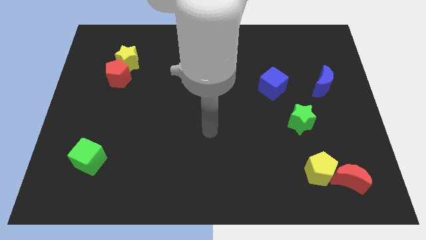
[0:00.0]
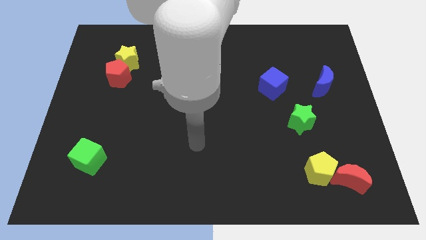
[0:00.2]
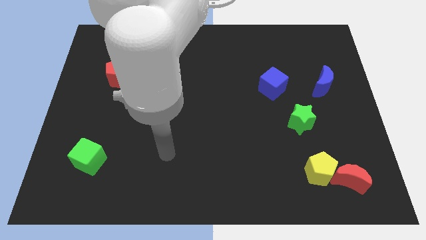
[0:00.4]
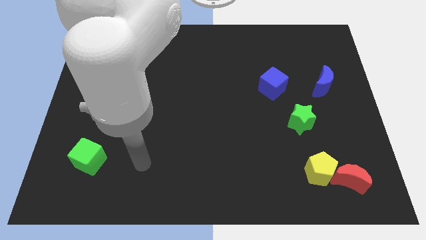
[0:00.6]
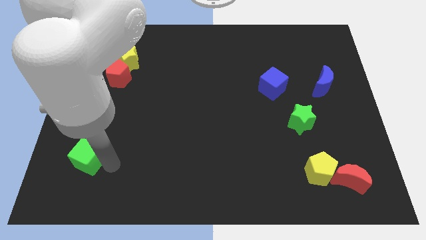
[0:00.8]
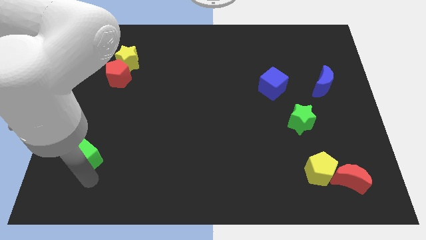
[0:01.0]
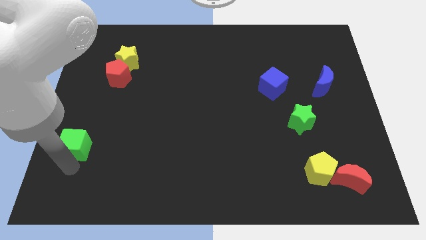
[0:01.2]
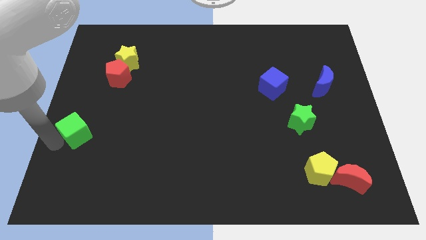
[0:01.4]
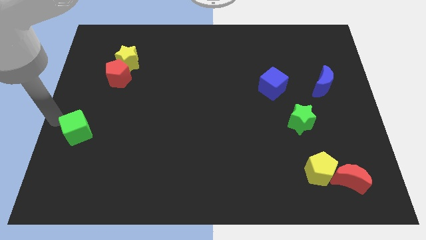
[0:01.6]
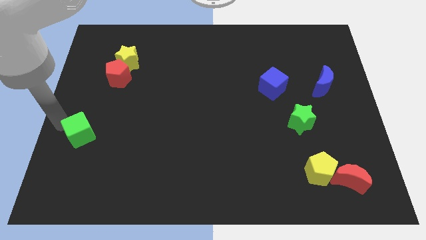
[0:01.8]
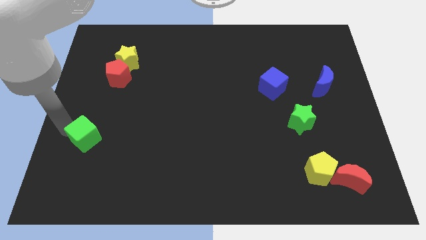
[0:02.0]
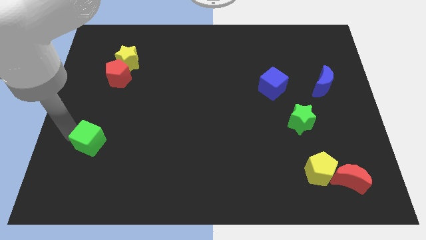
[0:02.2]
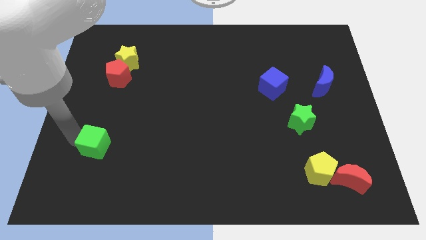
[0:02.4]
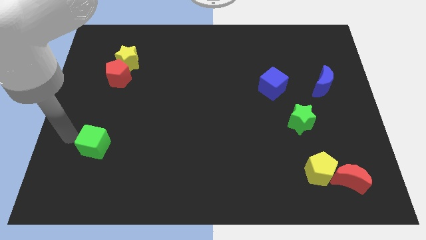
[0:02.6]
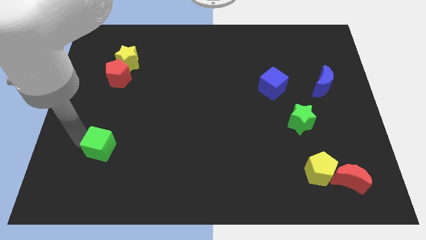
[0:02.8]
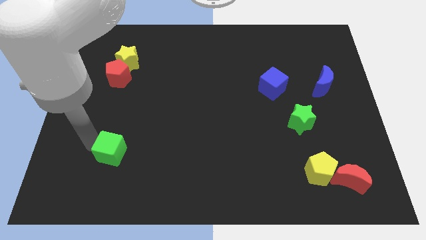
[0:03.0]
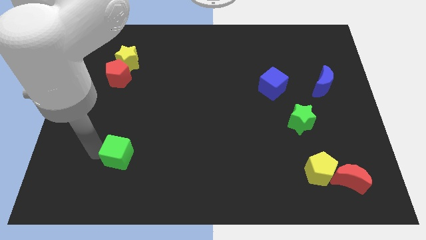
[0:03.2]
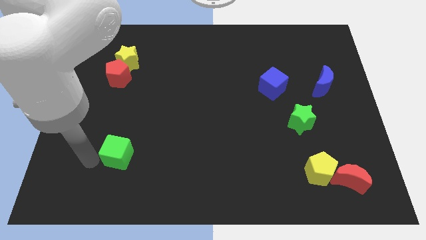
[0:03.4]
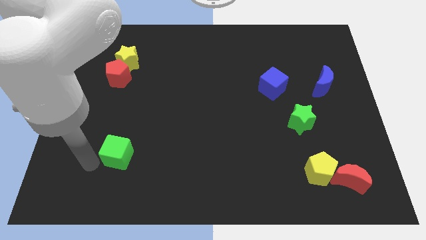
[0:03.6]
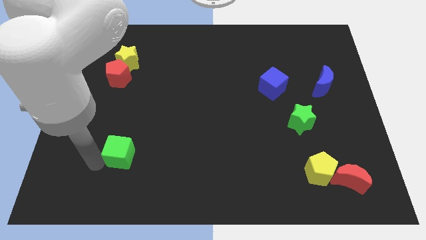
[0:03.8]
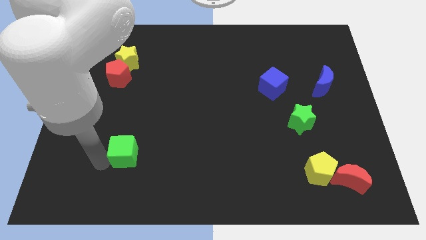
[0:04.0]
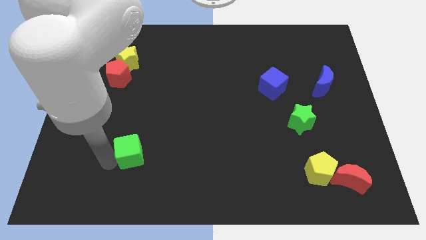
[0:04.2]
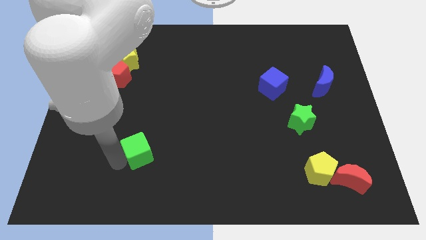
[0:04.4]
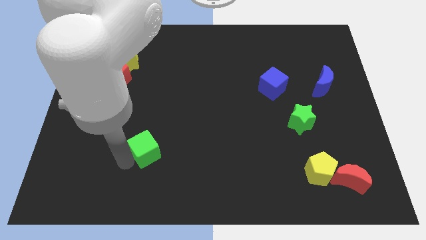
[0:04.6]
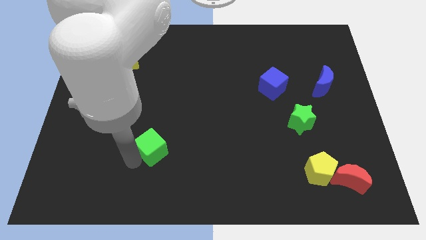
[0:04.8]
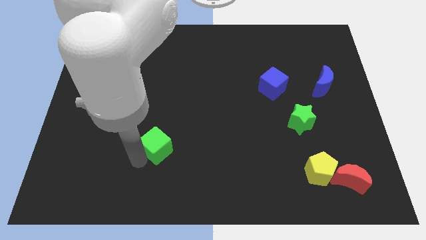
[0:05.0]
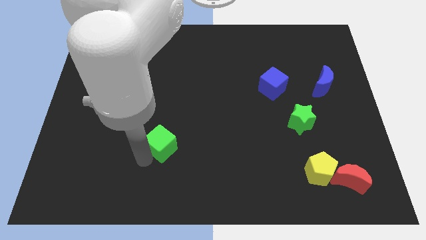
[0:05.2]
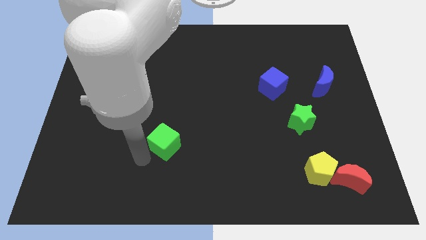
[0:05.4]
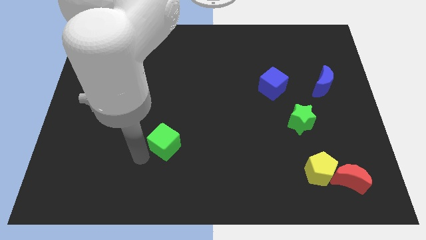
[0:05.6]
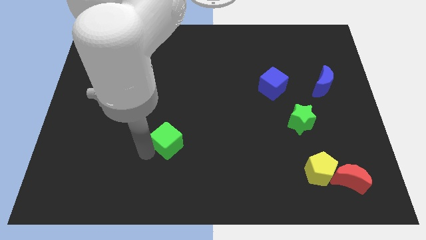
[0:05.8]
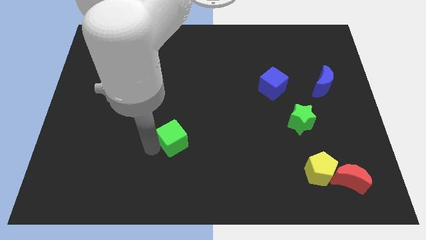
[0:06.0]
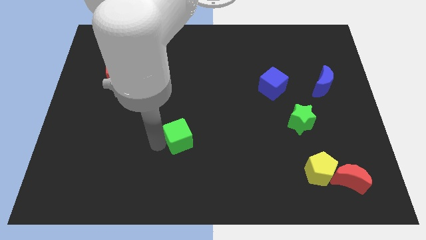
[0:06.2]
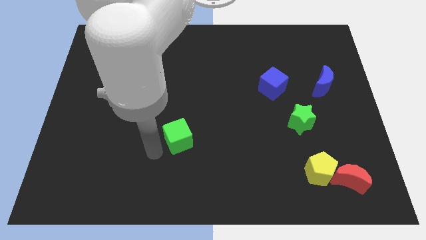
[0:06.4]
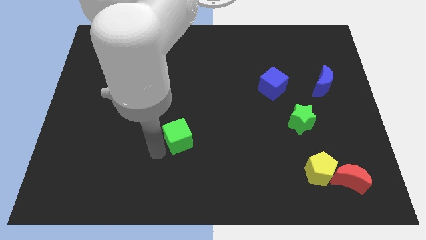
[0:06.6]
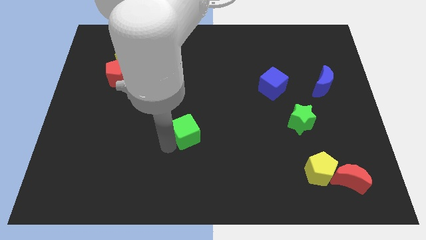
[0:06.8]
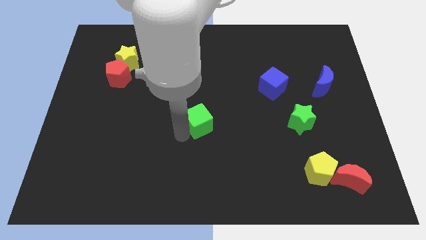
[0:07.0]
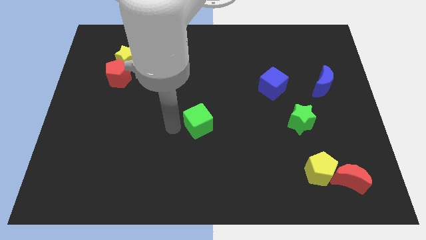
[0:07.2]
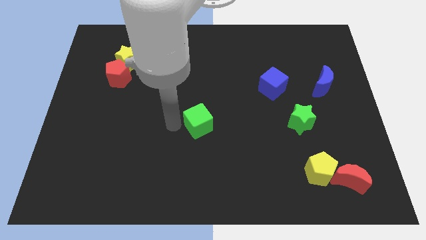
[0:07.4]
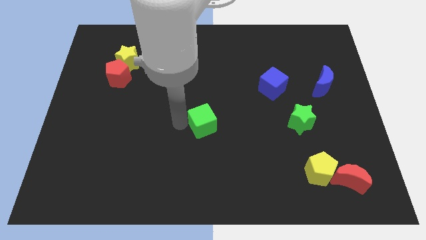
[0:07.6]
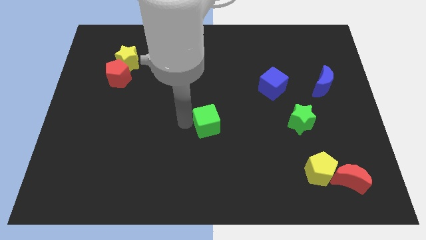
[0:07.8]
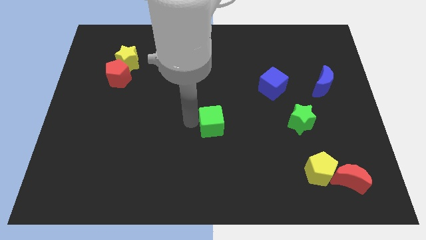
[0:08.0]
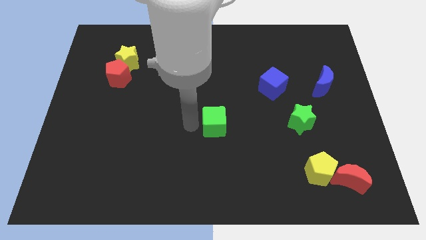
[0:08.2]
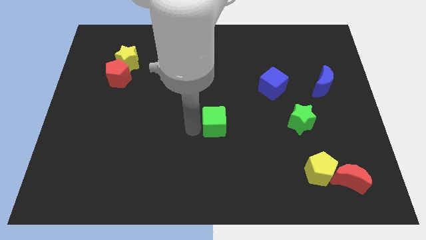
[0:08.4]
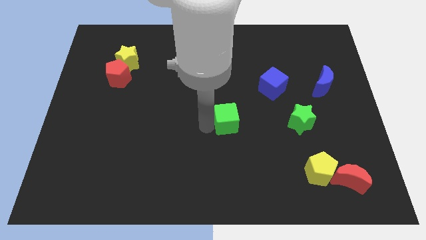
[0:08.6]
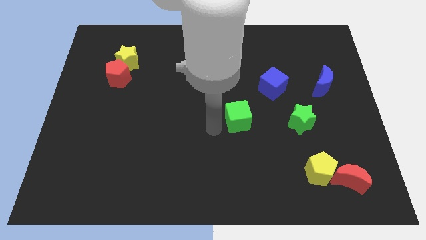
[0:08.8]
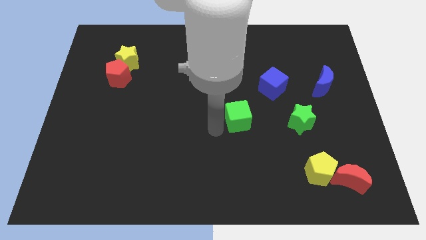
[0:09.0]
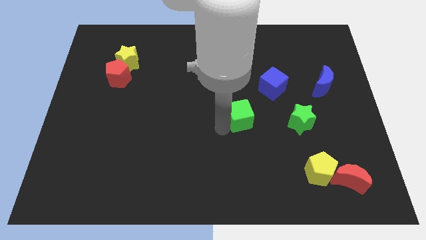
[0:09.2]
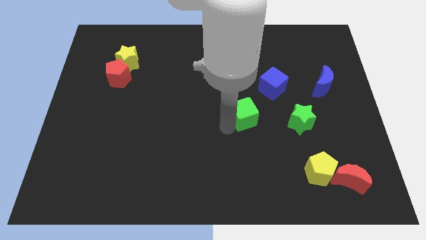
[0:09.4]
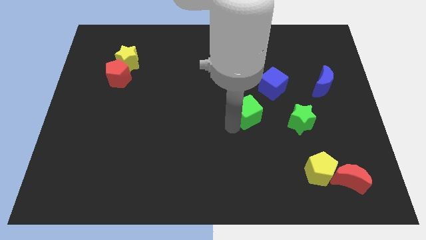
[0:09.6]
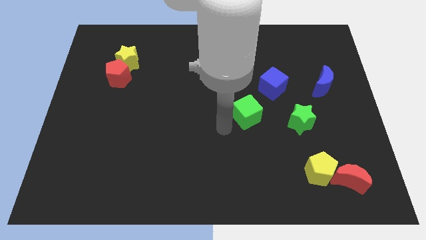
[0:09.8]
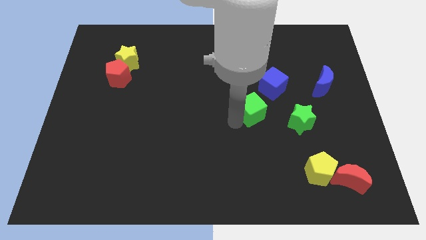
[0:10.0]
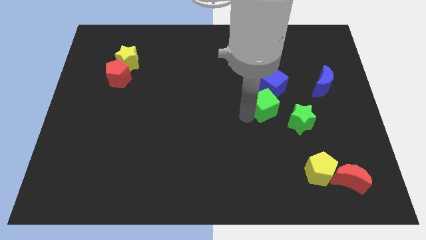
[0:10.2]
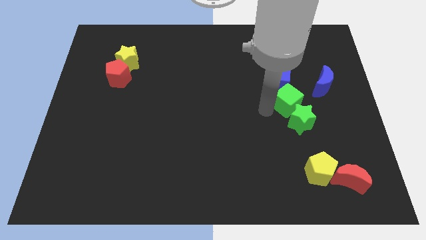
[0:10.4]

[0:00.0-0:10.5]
move the green cube to the top side of the green star

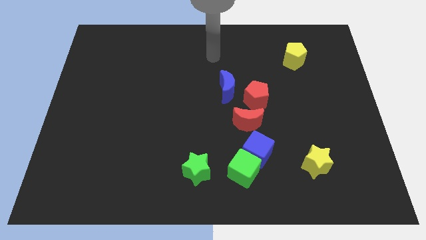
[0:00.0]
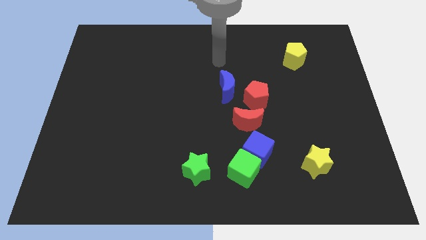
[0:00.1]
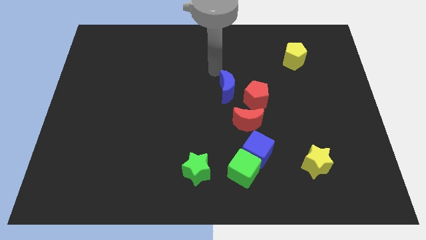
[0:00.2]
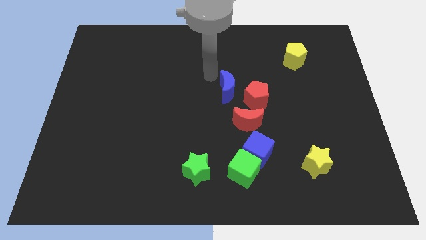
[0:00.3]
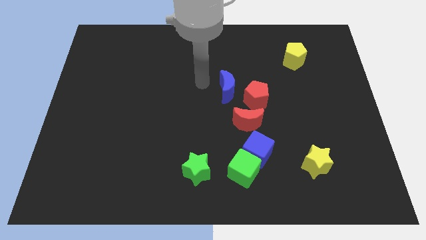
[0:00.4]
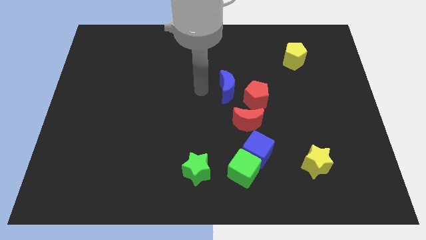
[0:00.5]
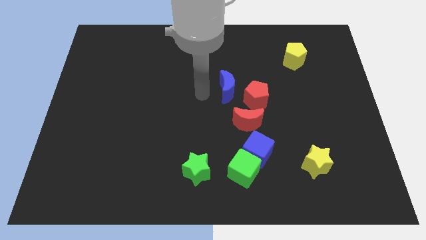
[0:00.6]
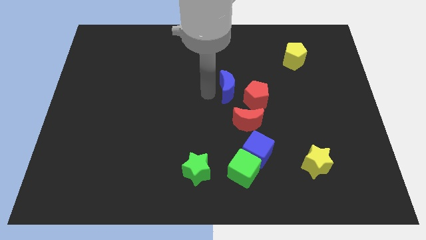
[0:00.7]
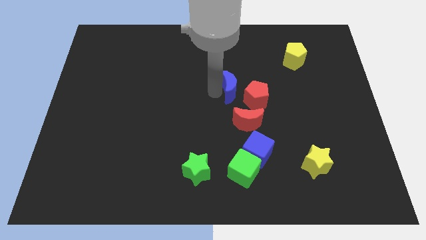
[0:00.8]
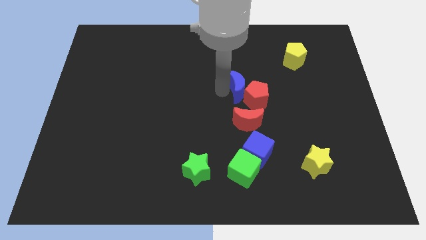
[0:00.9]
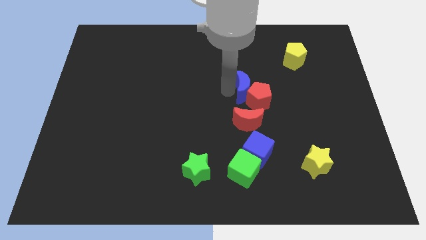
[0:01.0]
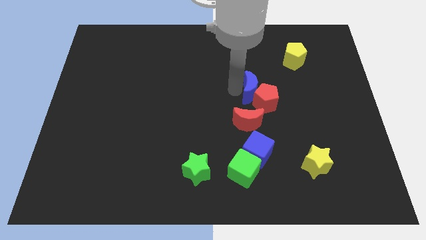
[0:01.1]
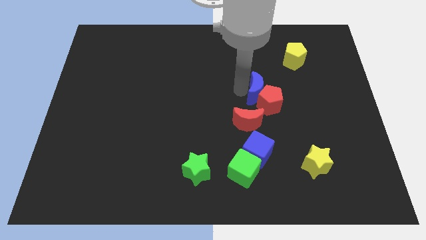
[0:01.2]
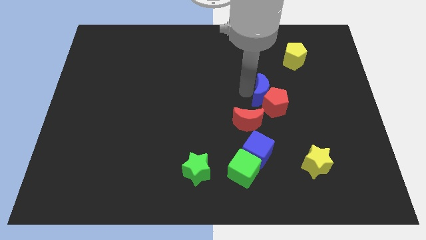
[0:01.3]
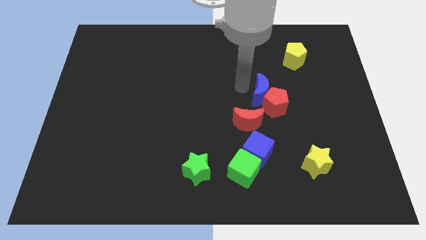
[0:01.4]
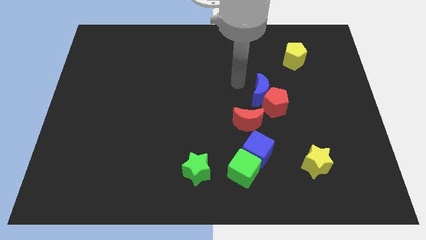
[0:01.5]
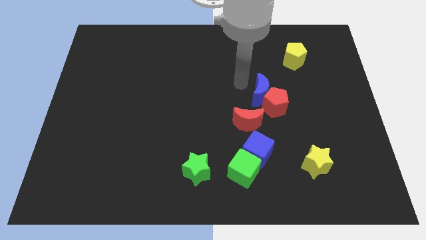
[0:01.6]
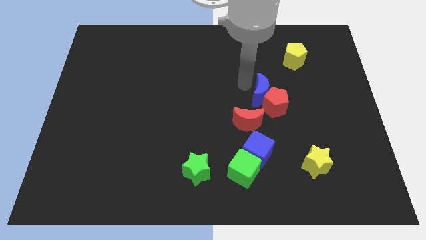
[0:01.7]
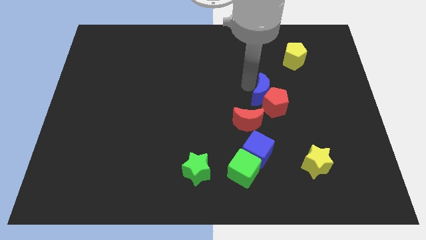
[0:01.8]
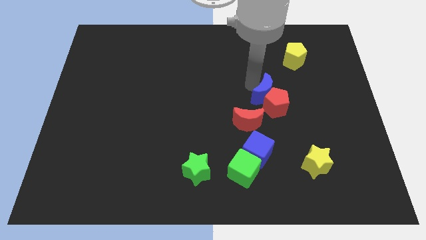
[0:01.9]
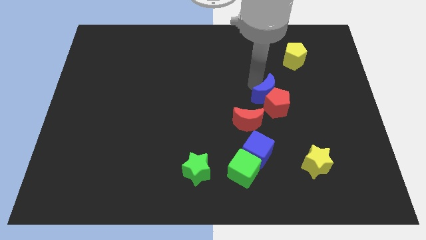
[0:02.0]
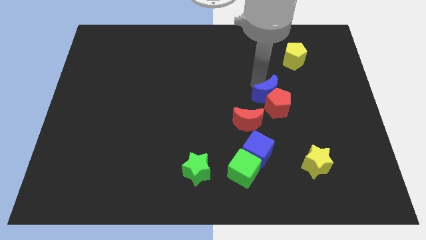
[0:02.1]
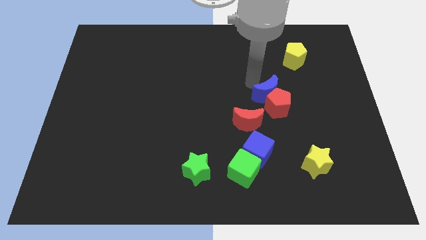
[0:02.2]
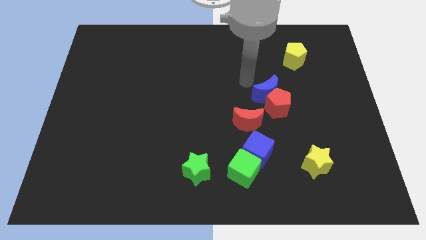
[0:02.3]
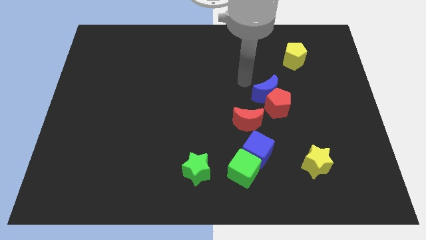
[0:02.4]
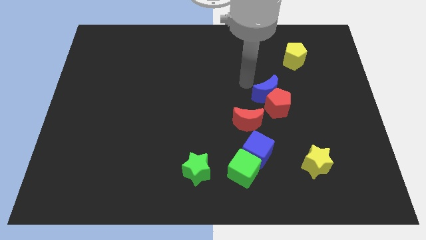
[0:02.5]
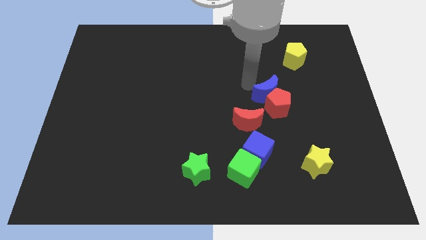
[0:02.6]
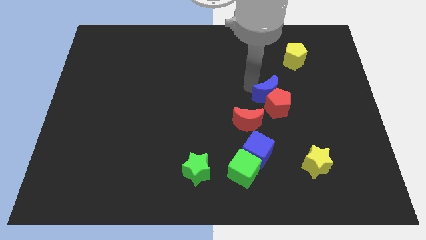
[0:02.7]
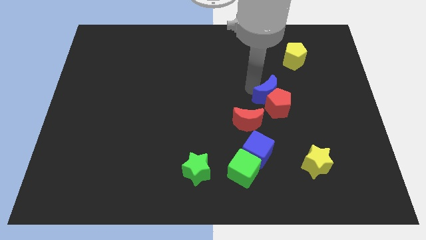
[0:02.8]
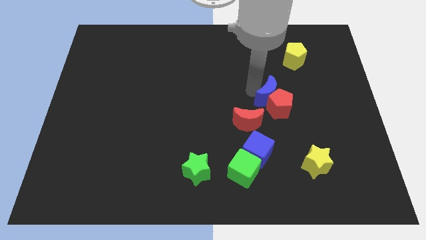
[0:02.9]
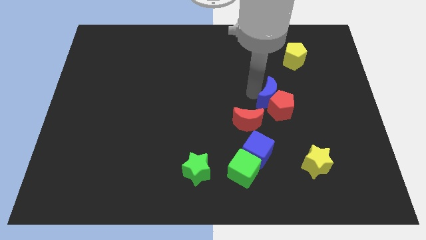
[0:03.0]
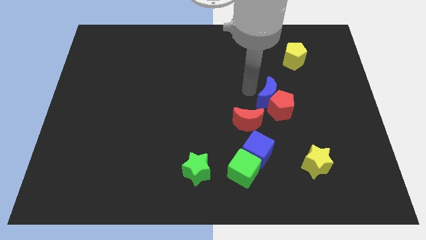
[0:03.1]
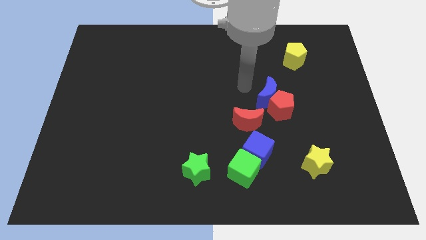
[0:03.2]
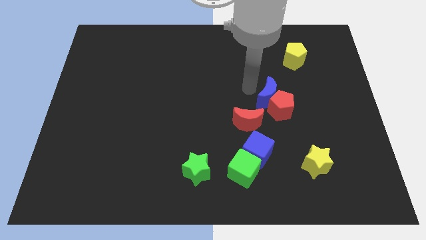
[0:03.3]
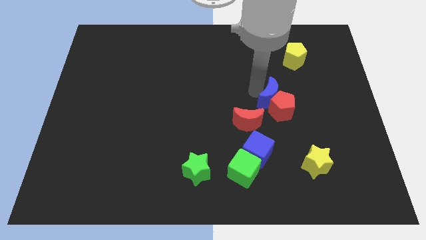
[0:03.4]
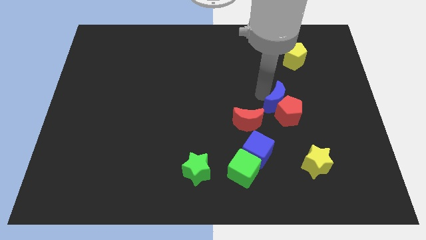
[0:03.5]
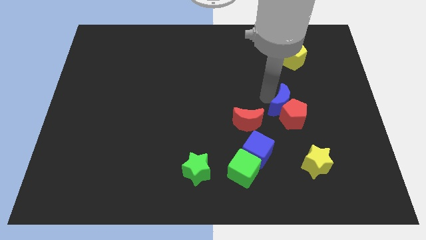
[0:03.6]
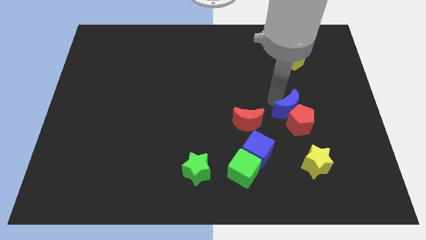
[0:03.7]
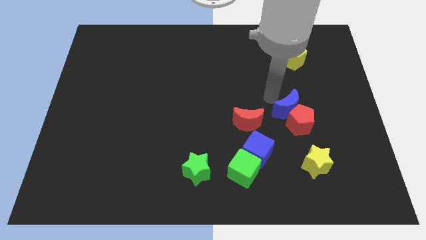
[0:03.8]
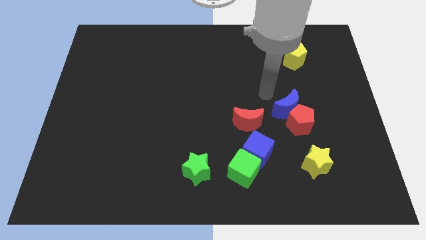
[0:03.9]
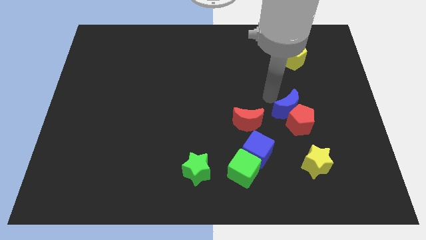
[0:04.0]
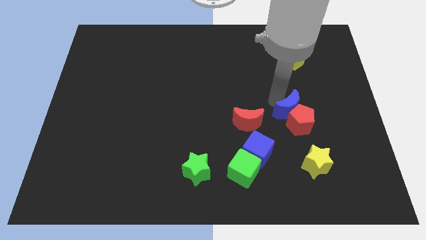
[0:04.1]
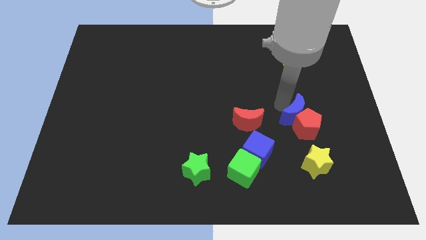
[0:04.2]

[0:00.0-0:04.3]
move the blue moon to the top of the yellow star
